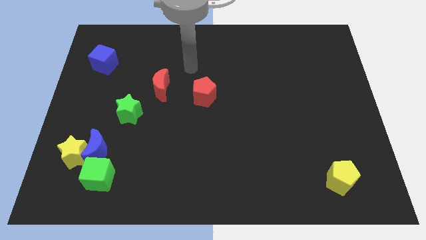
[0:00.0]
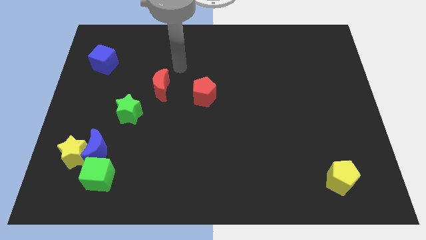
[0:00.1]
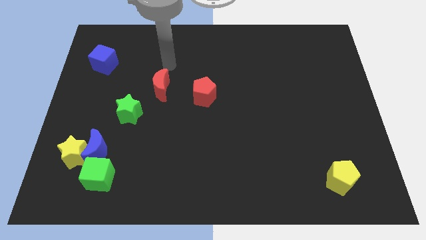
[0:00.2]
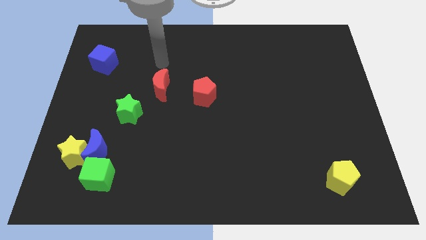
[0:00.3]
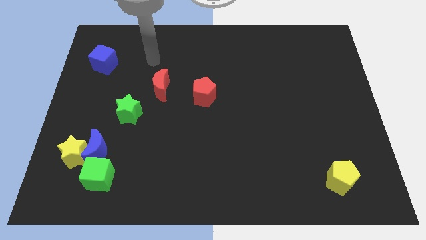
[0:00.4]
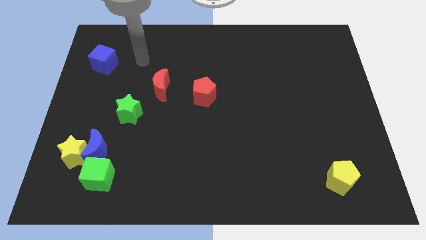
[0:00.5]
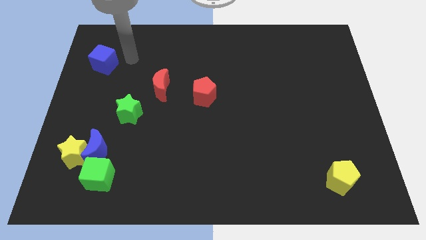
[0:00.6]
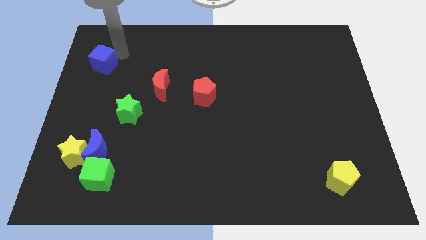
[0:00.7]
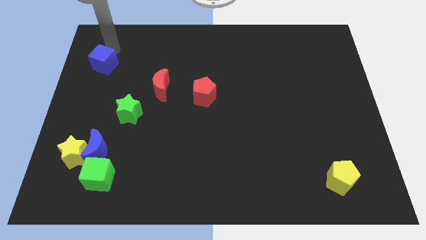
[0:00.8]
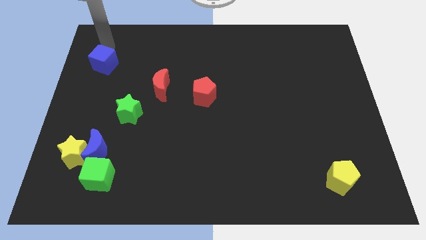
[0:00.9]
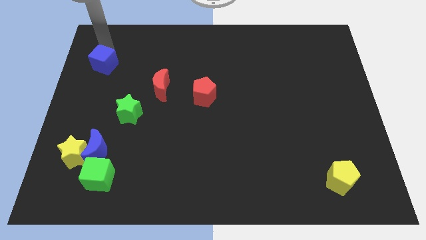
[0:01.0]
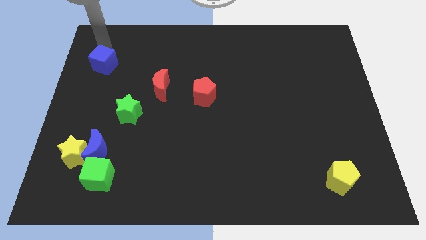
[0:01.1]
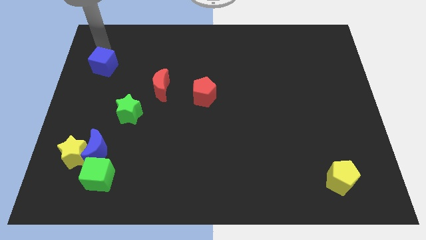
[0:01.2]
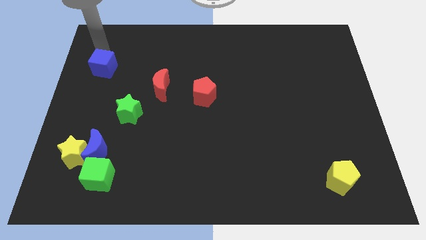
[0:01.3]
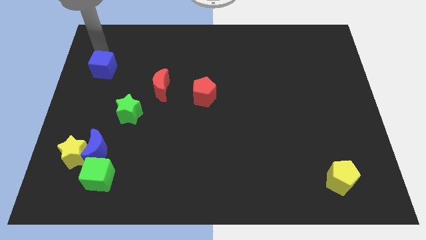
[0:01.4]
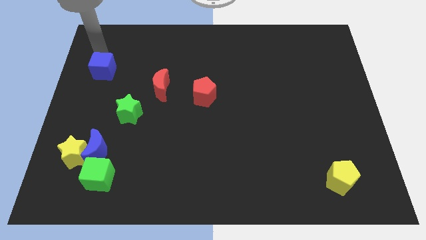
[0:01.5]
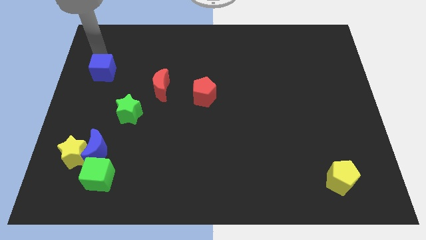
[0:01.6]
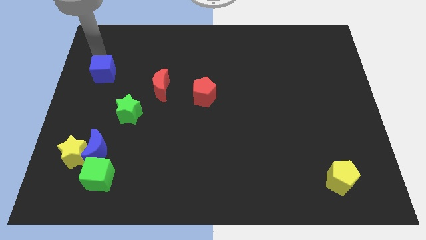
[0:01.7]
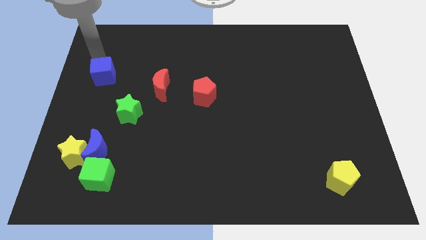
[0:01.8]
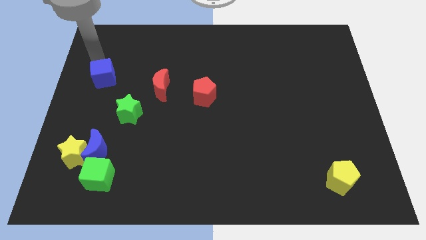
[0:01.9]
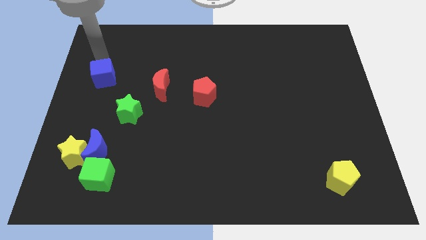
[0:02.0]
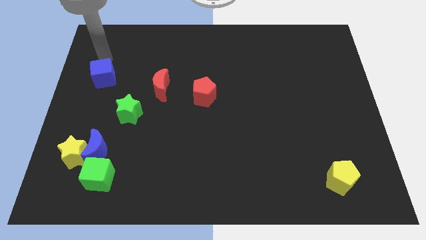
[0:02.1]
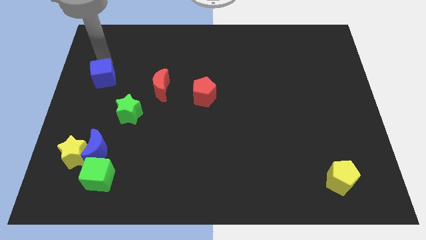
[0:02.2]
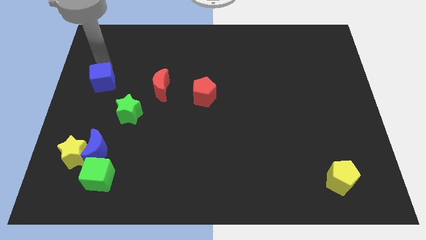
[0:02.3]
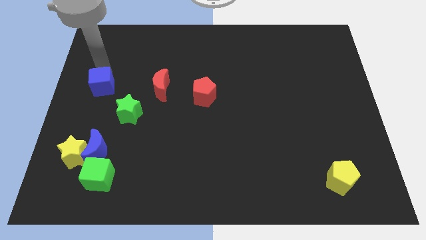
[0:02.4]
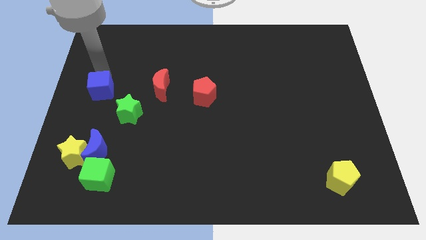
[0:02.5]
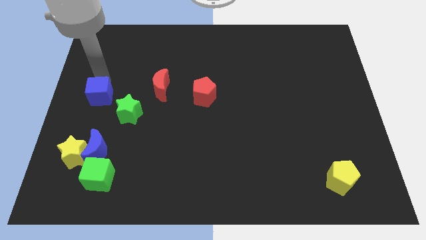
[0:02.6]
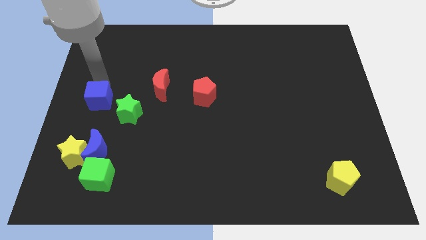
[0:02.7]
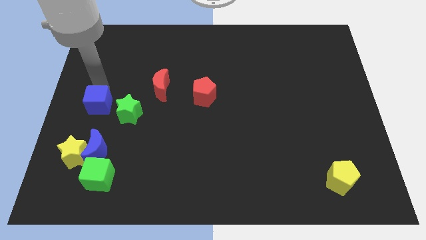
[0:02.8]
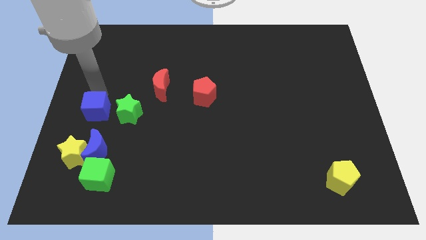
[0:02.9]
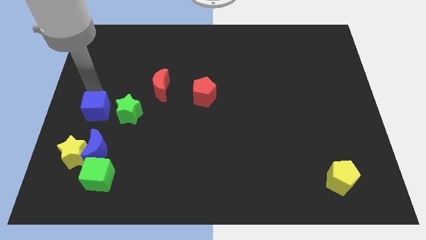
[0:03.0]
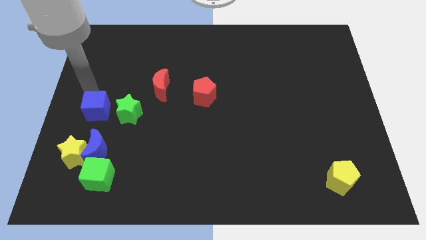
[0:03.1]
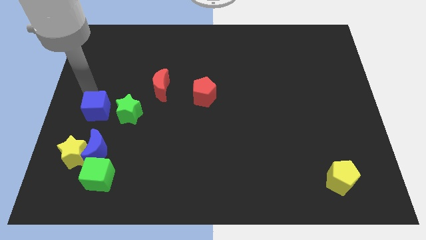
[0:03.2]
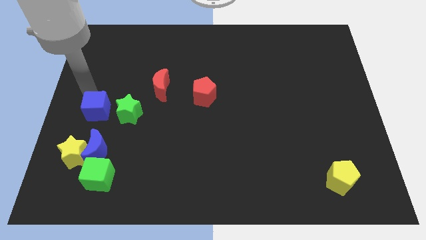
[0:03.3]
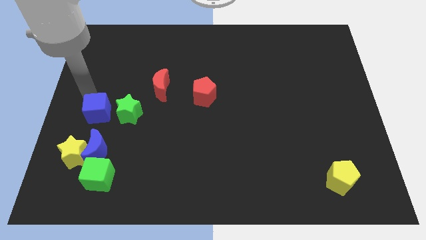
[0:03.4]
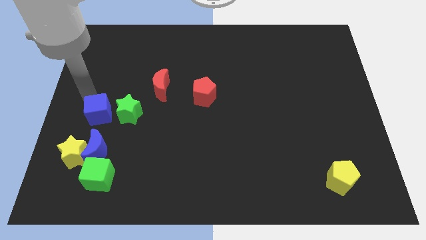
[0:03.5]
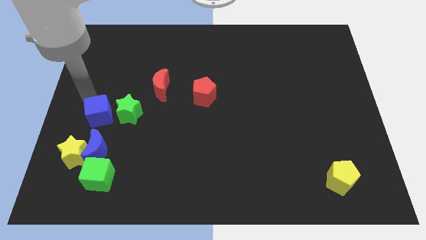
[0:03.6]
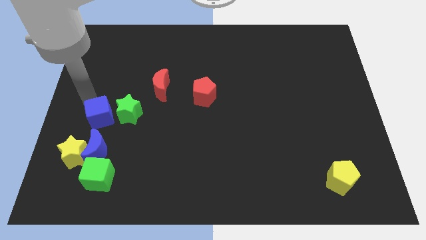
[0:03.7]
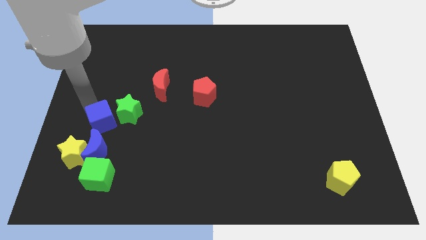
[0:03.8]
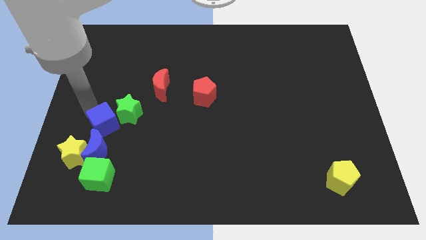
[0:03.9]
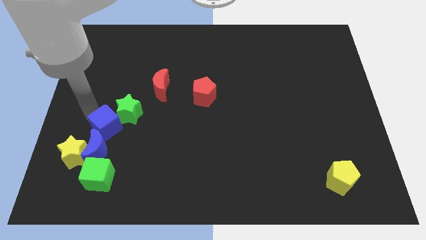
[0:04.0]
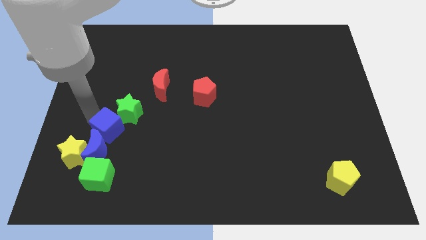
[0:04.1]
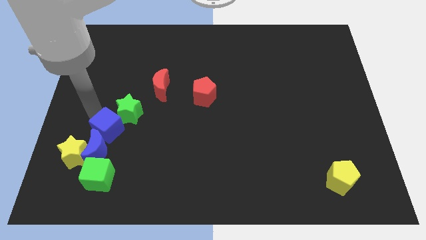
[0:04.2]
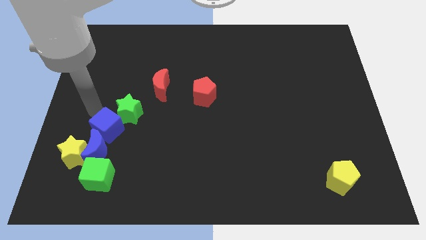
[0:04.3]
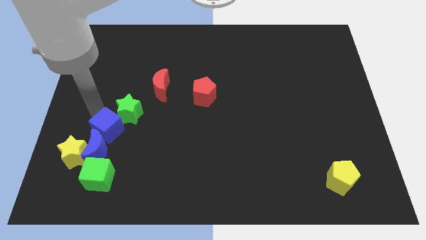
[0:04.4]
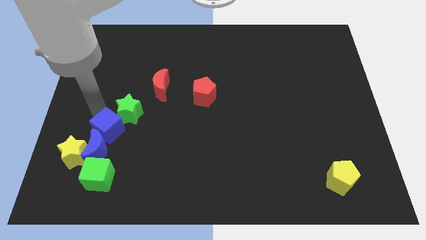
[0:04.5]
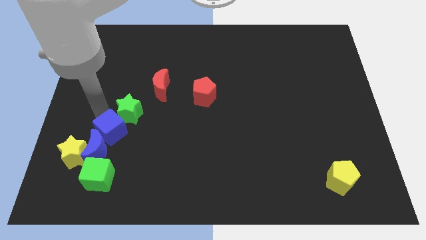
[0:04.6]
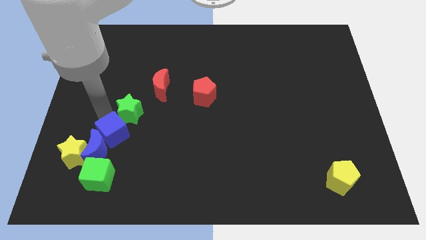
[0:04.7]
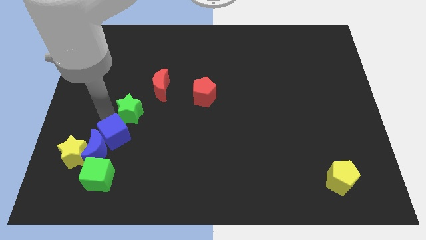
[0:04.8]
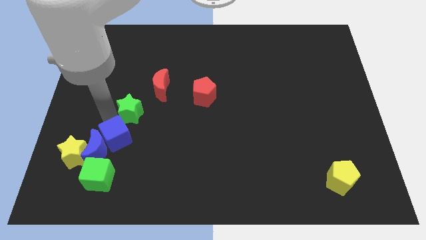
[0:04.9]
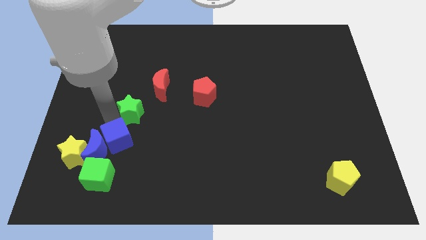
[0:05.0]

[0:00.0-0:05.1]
put the blue cube diagonally up and to the right of the green cube

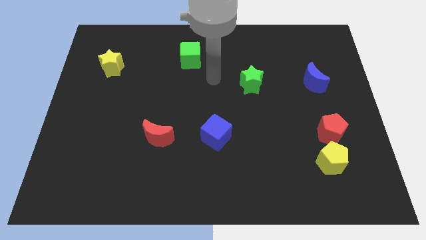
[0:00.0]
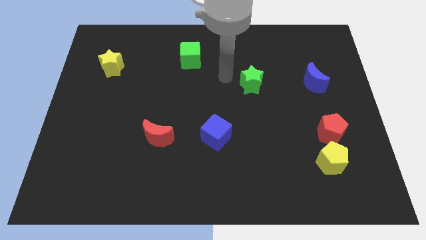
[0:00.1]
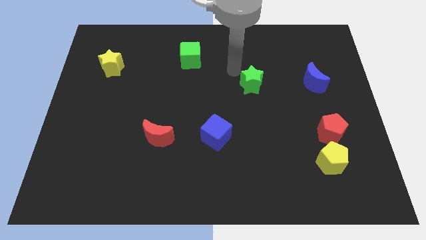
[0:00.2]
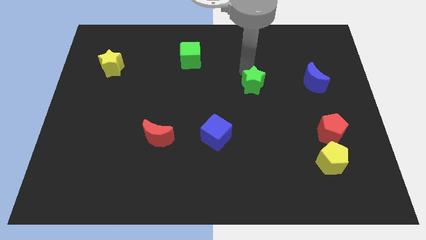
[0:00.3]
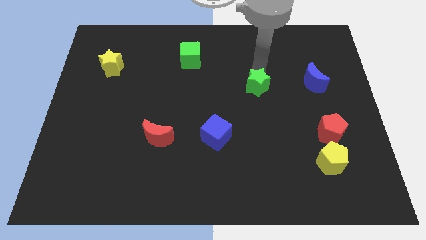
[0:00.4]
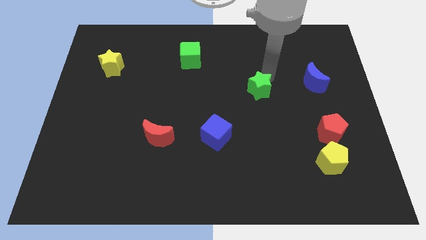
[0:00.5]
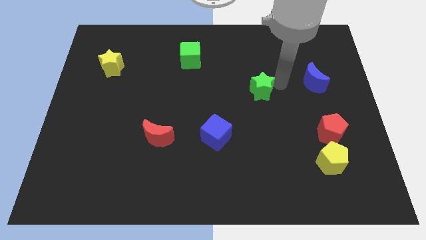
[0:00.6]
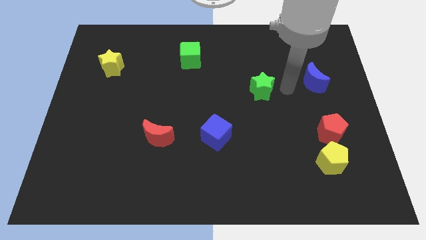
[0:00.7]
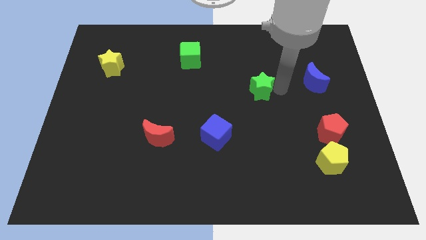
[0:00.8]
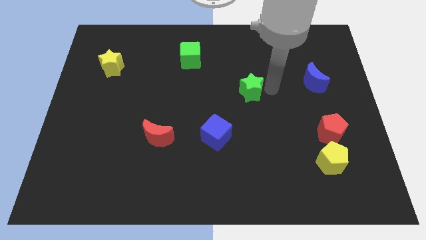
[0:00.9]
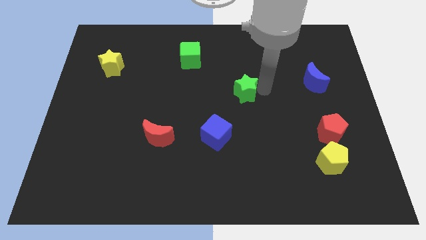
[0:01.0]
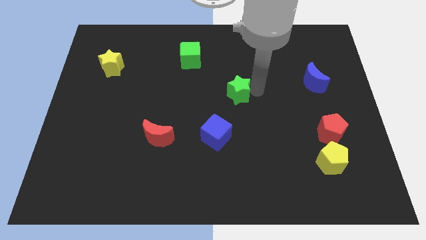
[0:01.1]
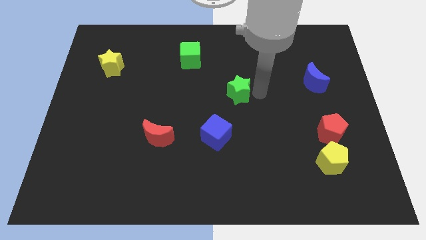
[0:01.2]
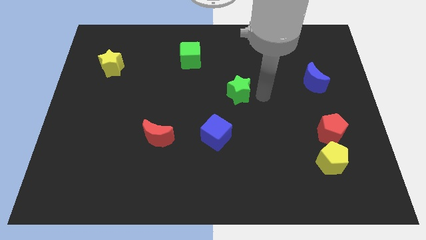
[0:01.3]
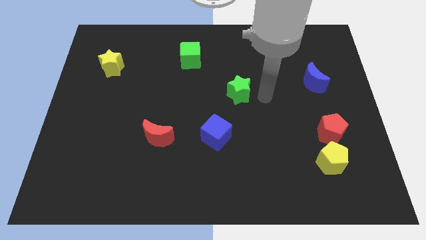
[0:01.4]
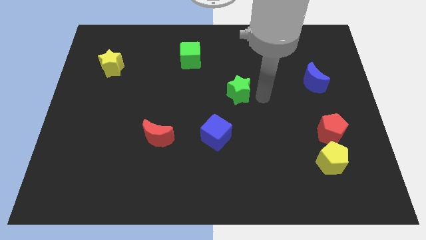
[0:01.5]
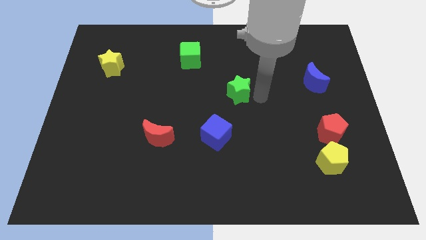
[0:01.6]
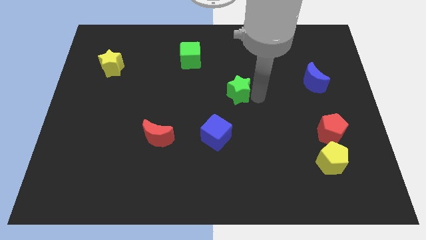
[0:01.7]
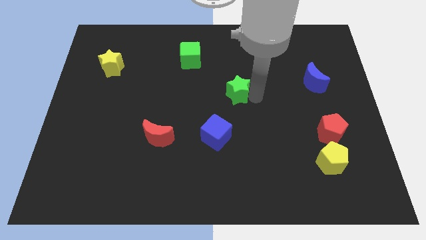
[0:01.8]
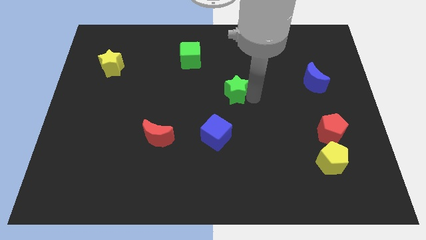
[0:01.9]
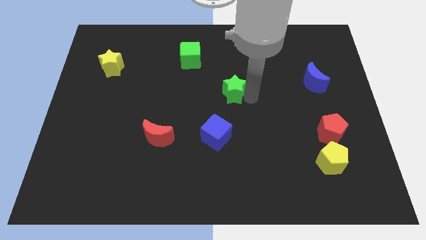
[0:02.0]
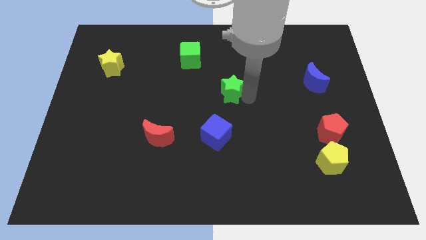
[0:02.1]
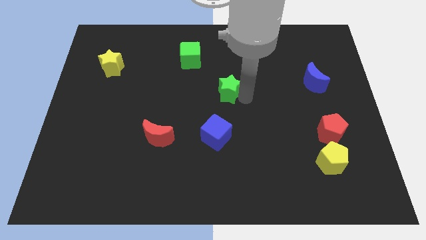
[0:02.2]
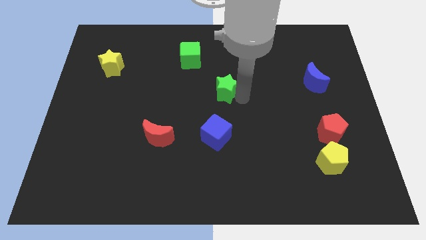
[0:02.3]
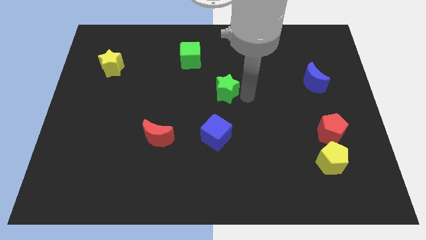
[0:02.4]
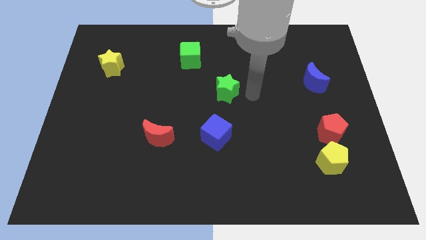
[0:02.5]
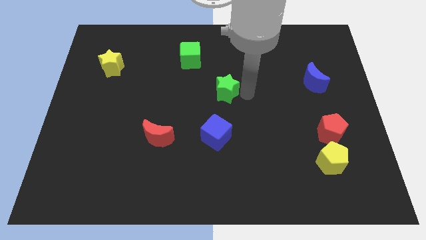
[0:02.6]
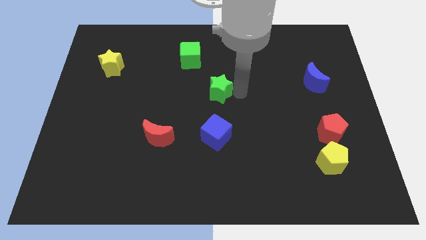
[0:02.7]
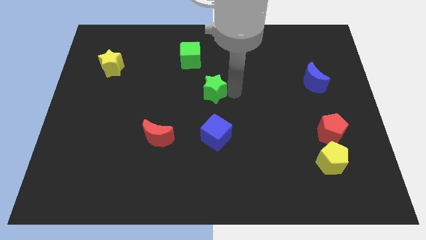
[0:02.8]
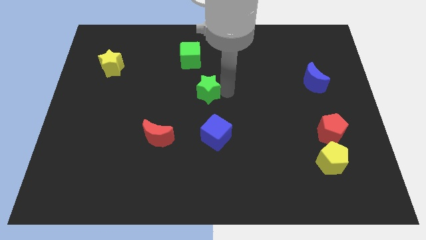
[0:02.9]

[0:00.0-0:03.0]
push the green star to the bottom side of the green cube
